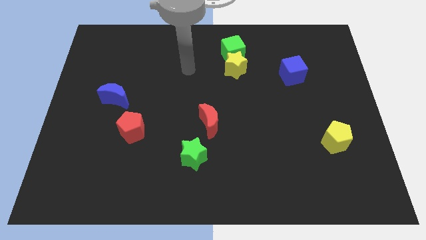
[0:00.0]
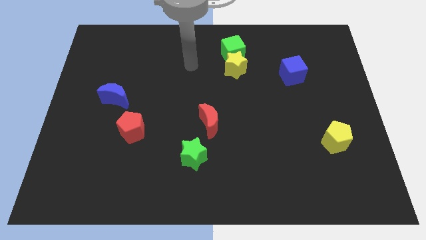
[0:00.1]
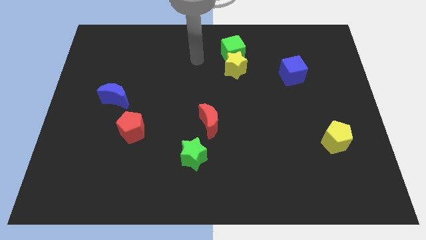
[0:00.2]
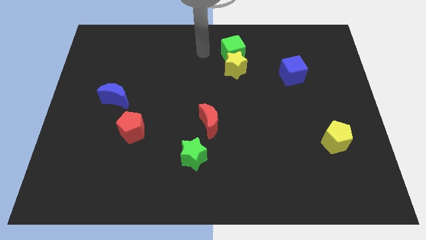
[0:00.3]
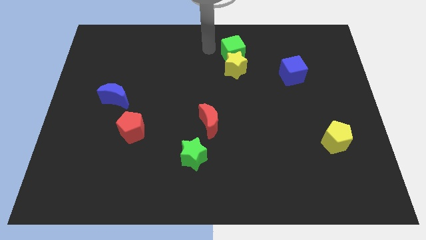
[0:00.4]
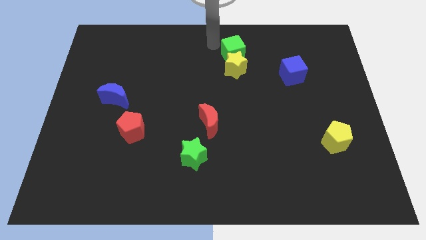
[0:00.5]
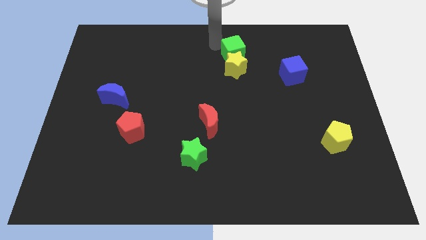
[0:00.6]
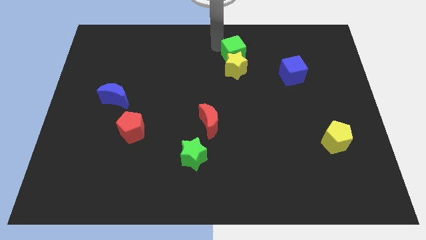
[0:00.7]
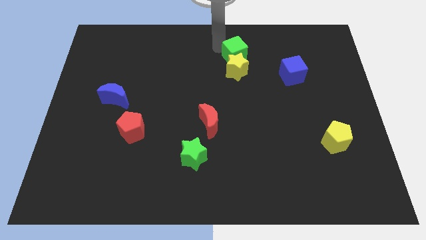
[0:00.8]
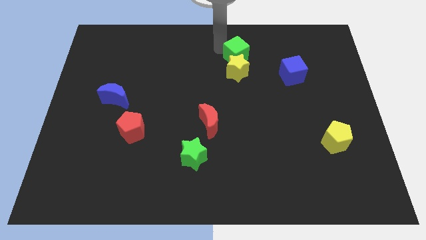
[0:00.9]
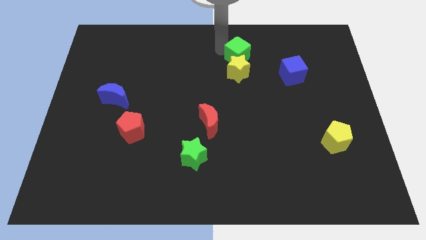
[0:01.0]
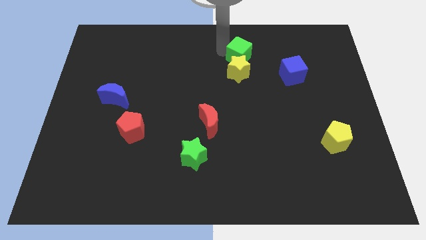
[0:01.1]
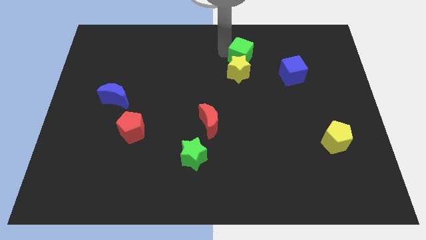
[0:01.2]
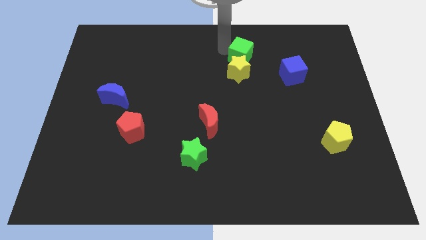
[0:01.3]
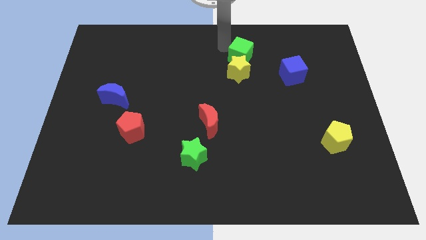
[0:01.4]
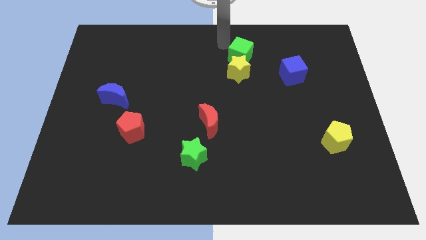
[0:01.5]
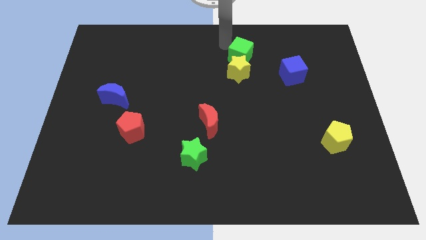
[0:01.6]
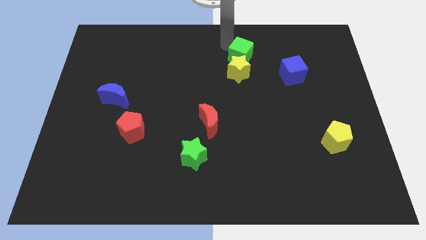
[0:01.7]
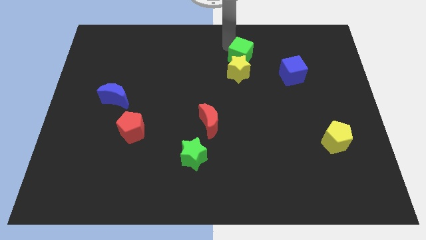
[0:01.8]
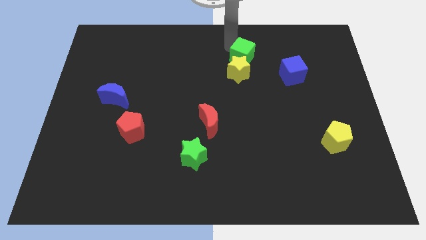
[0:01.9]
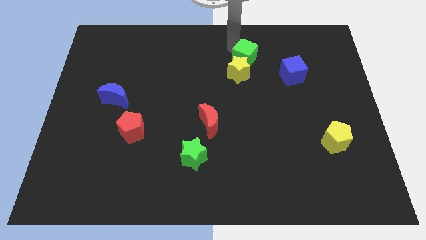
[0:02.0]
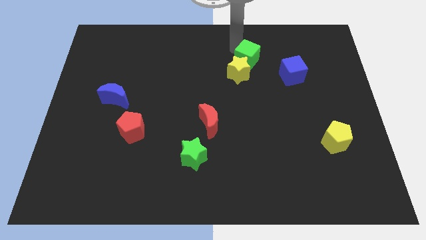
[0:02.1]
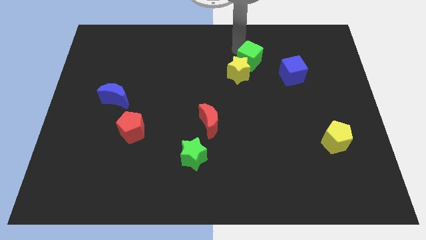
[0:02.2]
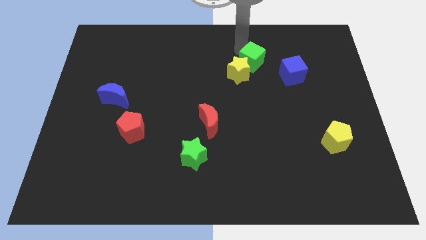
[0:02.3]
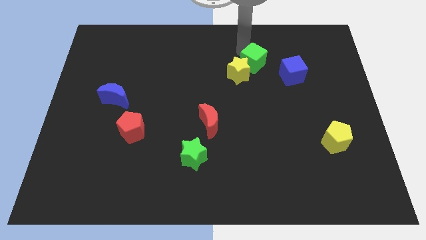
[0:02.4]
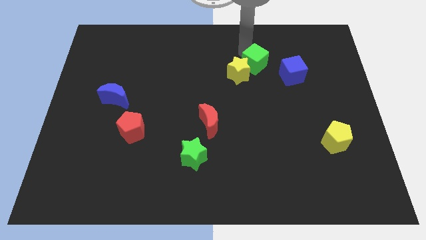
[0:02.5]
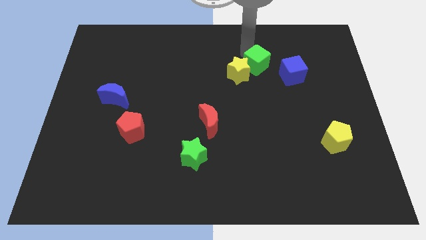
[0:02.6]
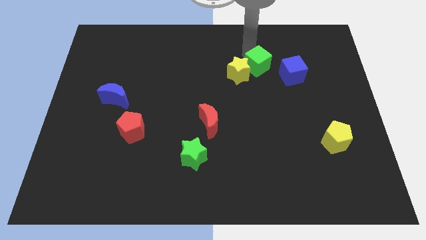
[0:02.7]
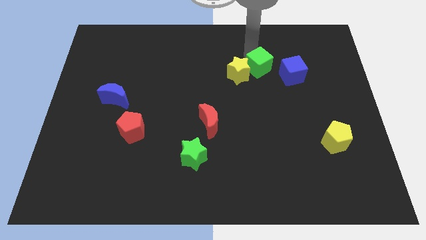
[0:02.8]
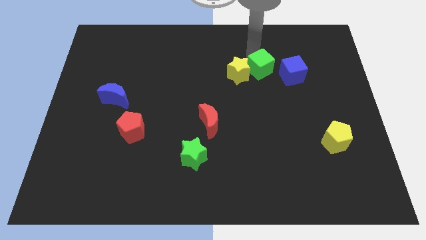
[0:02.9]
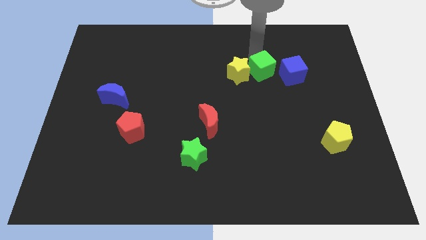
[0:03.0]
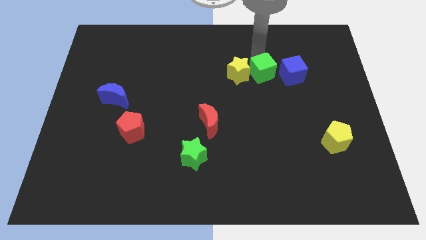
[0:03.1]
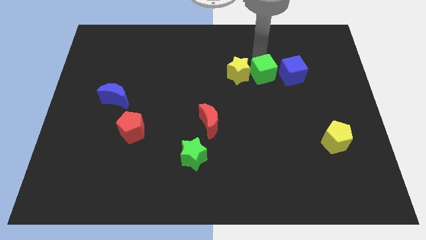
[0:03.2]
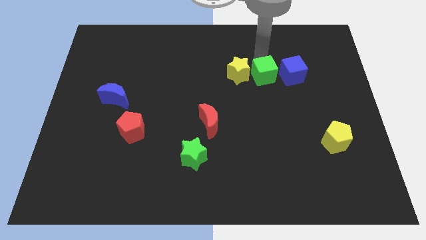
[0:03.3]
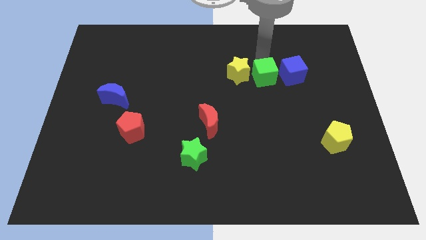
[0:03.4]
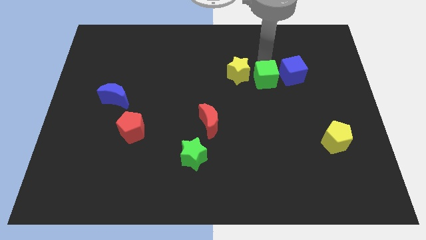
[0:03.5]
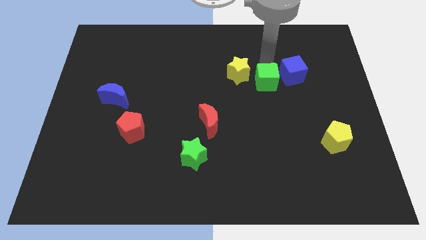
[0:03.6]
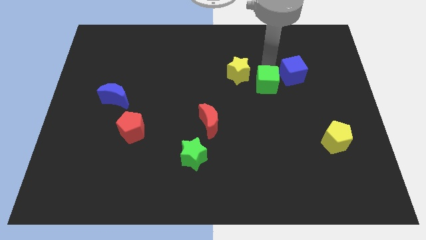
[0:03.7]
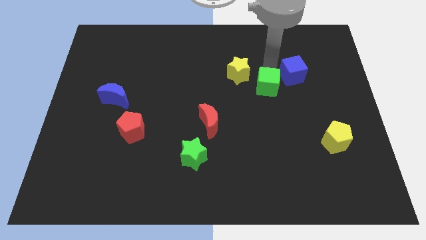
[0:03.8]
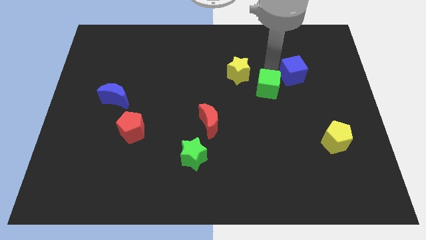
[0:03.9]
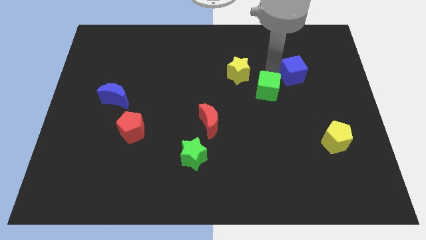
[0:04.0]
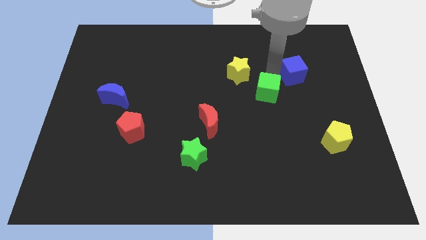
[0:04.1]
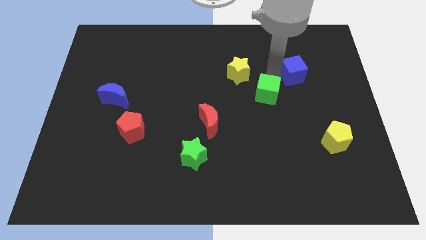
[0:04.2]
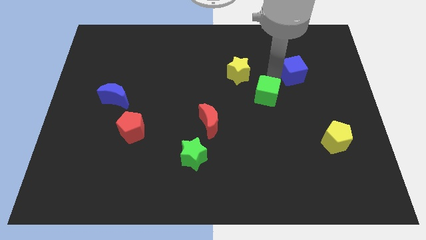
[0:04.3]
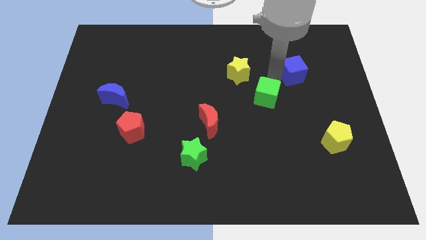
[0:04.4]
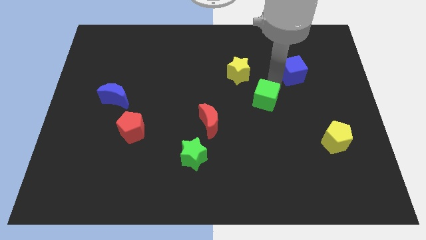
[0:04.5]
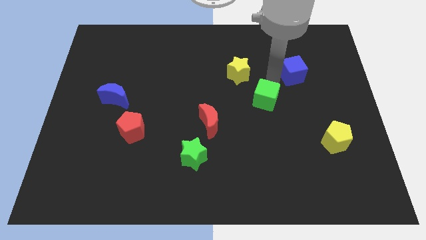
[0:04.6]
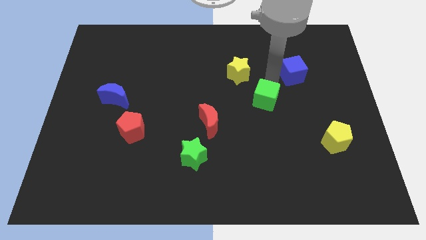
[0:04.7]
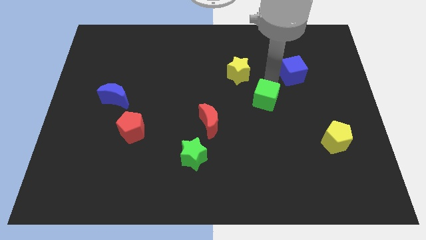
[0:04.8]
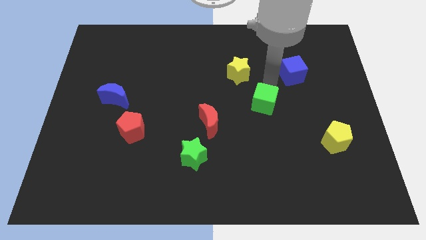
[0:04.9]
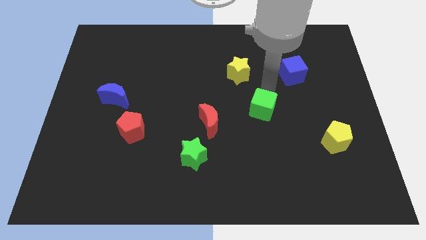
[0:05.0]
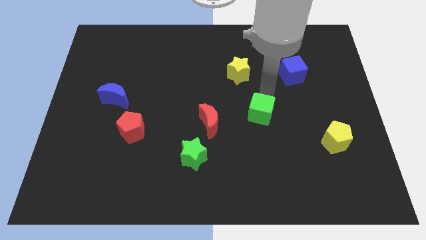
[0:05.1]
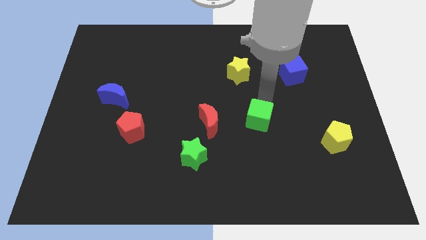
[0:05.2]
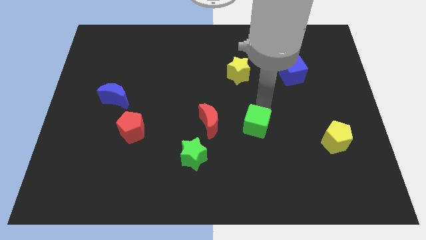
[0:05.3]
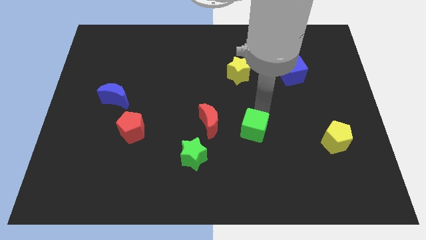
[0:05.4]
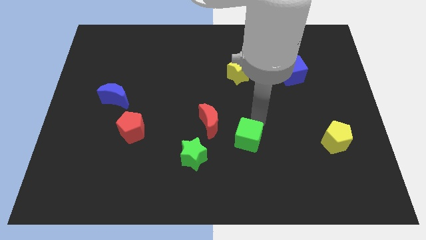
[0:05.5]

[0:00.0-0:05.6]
put the green cube right of the green star

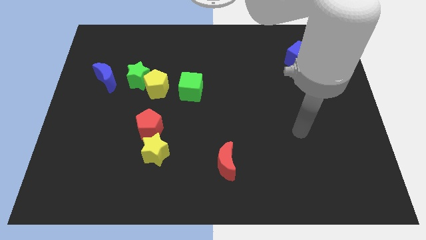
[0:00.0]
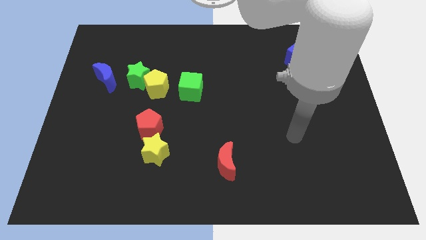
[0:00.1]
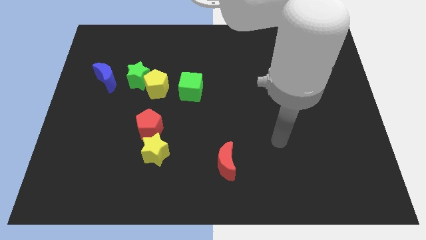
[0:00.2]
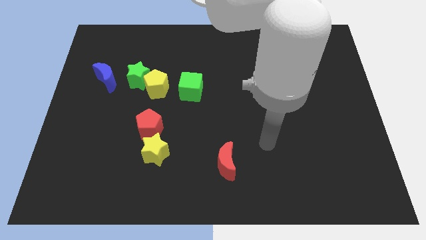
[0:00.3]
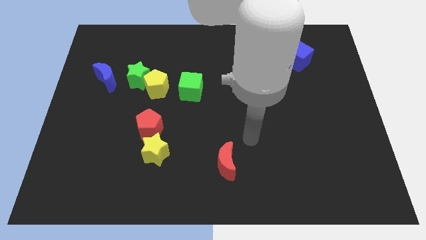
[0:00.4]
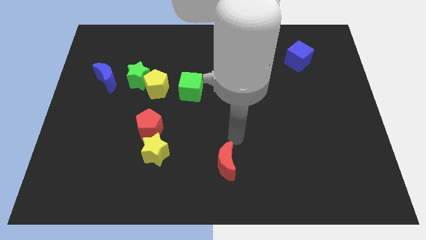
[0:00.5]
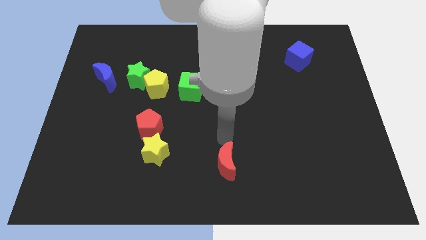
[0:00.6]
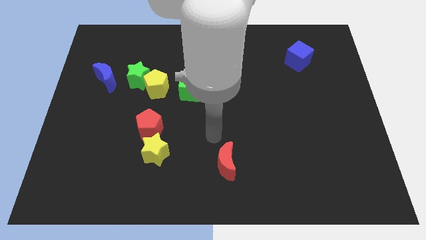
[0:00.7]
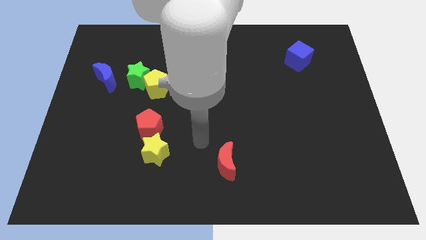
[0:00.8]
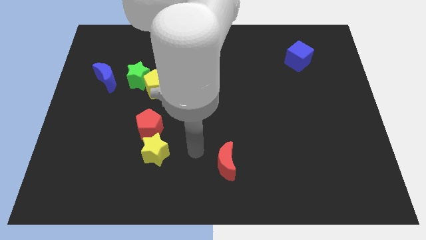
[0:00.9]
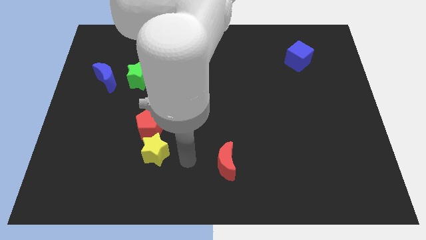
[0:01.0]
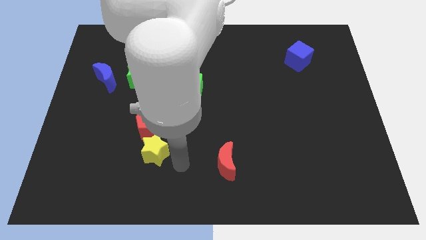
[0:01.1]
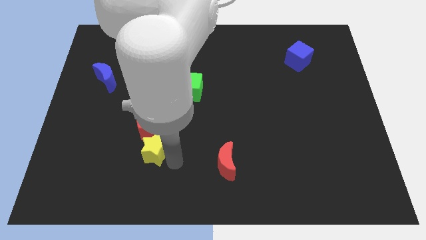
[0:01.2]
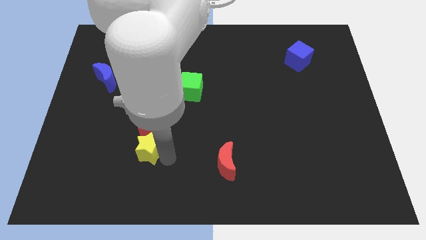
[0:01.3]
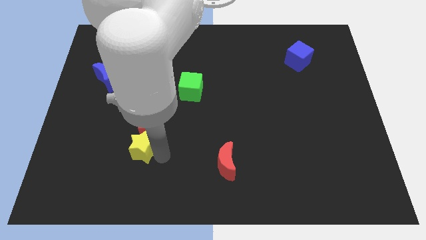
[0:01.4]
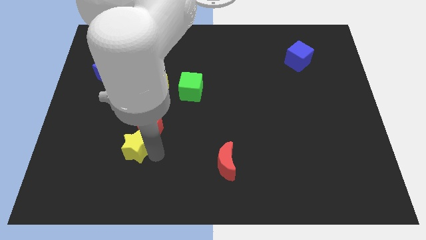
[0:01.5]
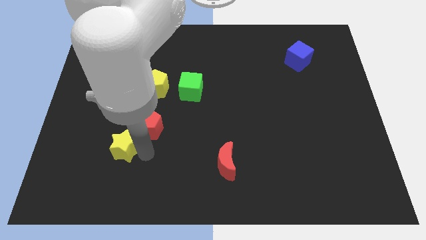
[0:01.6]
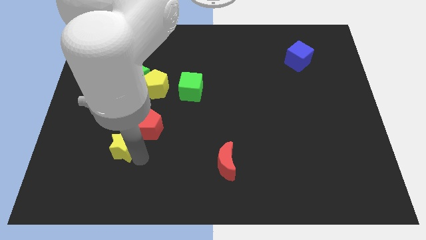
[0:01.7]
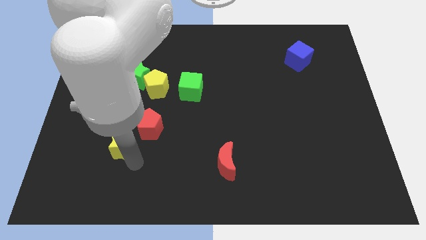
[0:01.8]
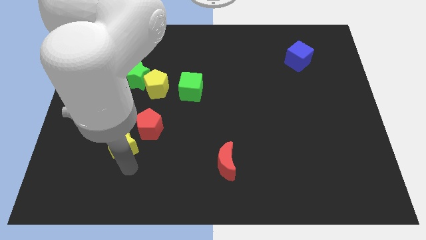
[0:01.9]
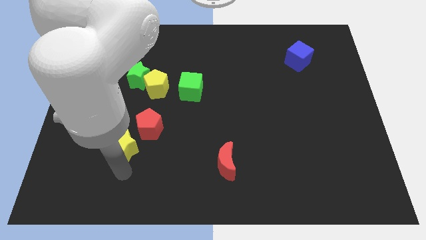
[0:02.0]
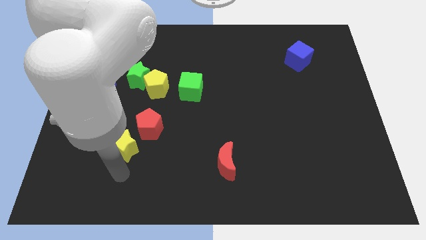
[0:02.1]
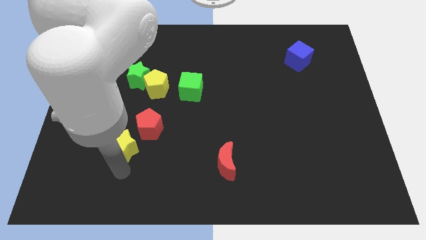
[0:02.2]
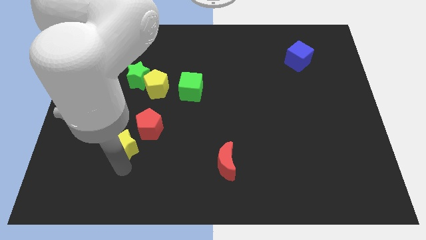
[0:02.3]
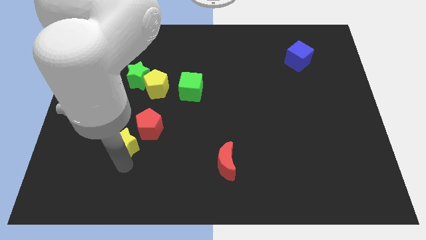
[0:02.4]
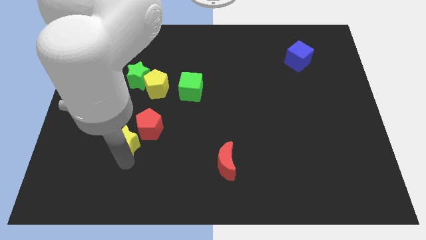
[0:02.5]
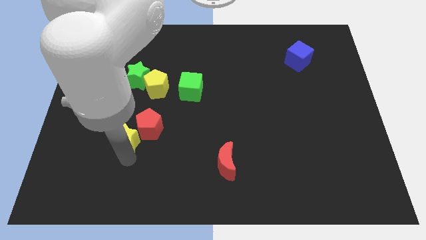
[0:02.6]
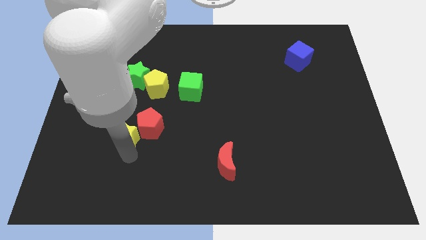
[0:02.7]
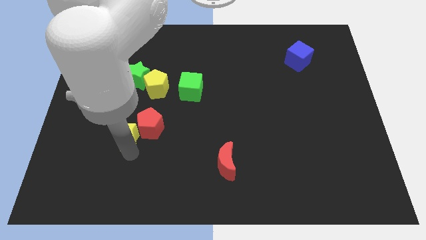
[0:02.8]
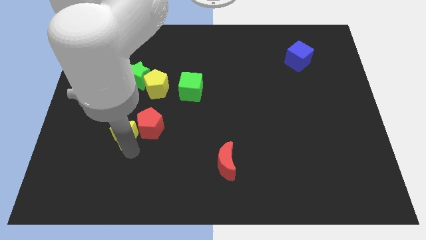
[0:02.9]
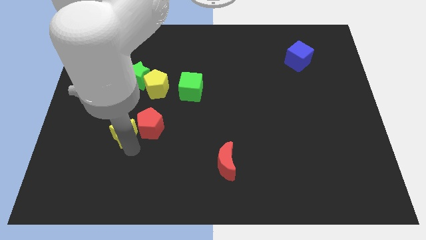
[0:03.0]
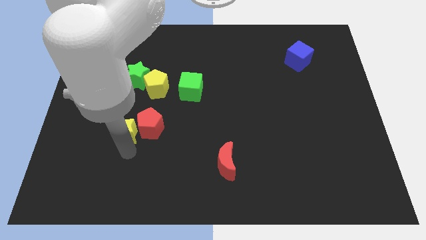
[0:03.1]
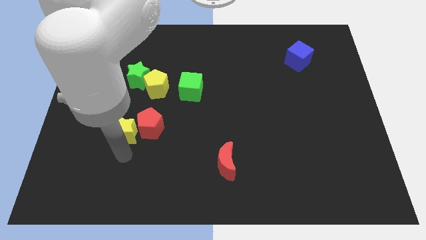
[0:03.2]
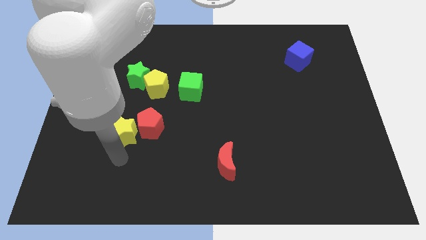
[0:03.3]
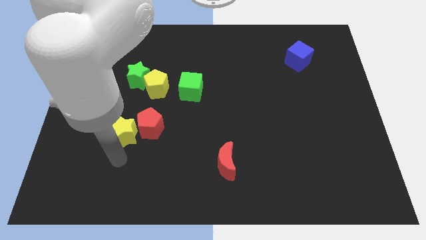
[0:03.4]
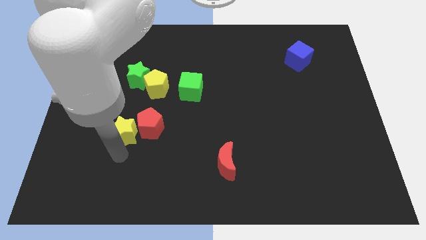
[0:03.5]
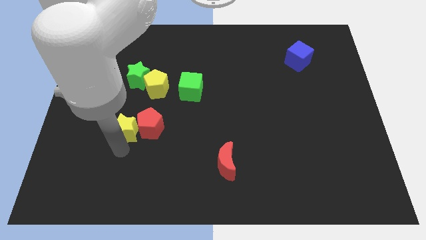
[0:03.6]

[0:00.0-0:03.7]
move the yellow star to the top left of the red pentagon
